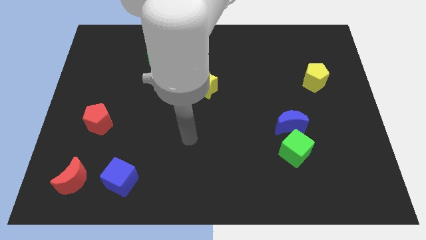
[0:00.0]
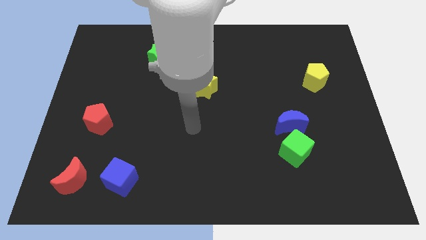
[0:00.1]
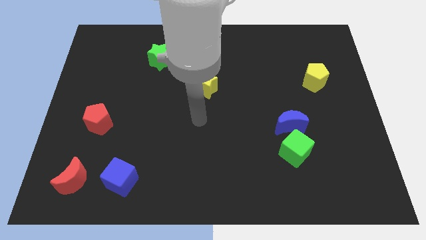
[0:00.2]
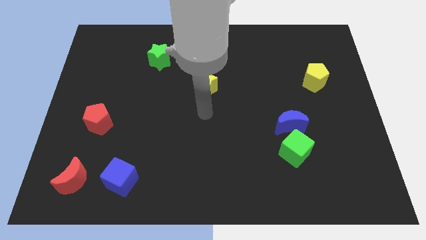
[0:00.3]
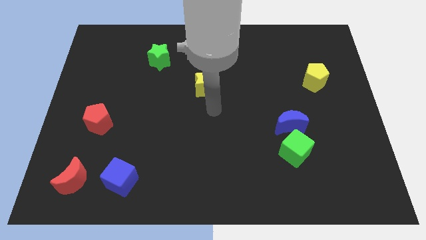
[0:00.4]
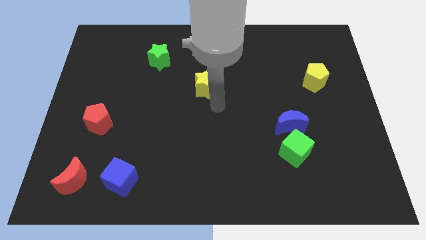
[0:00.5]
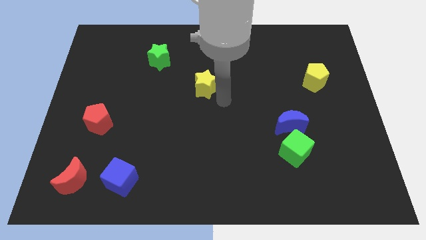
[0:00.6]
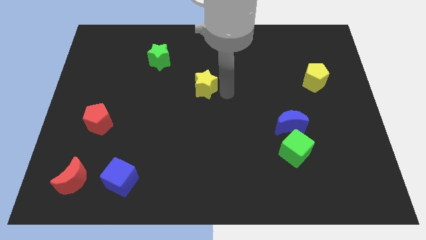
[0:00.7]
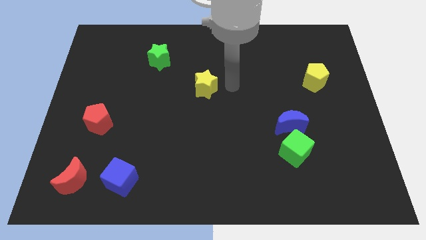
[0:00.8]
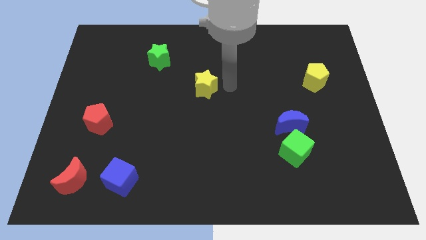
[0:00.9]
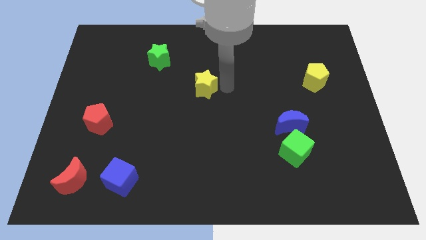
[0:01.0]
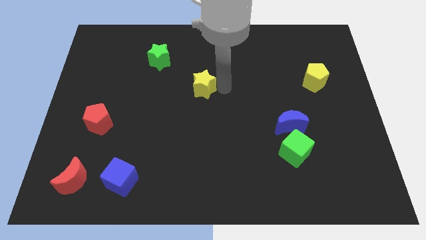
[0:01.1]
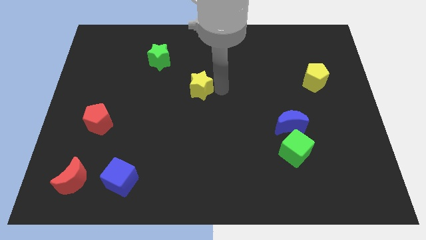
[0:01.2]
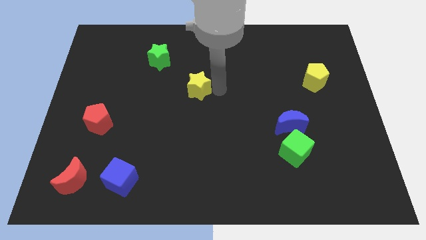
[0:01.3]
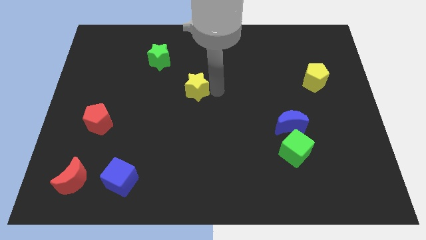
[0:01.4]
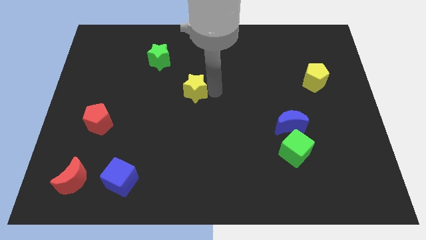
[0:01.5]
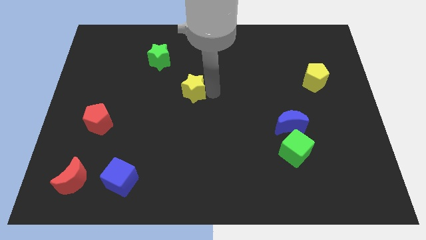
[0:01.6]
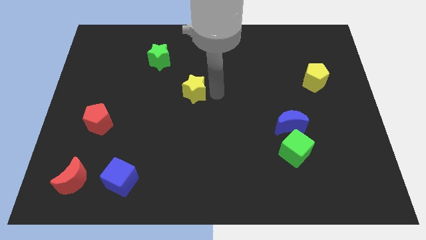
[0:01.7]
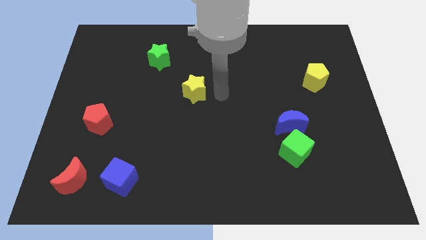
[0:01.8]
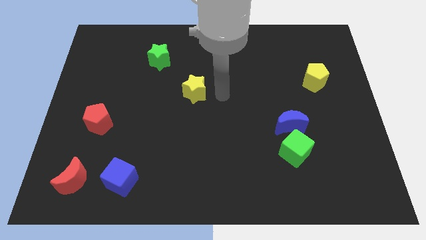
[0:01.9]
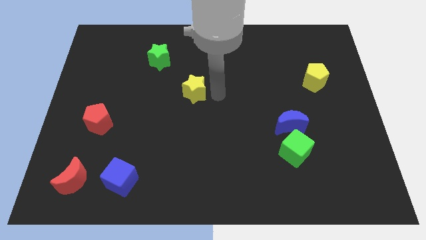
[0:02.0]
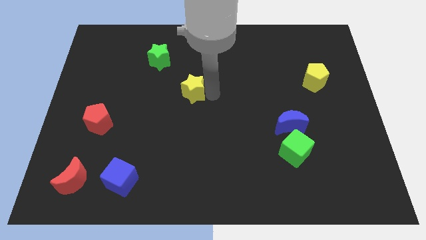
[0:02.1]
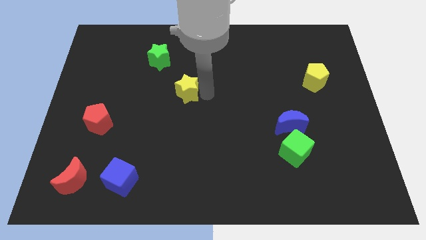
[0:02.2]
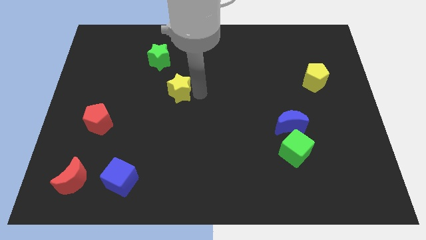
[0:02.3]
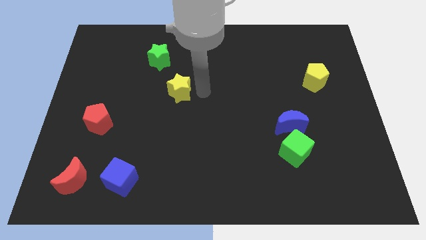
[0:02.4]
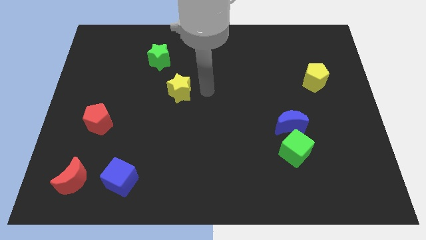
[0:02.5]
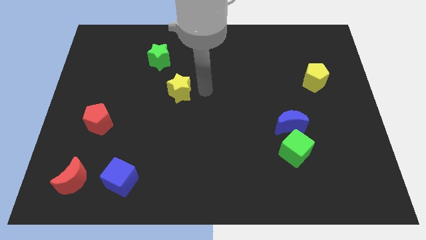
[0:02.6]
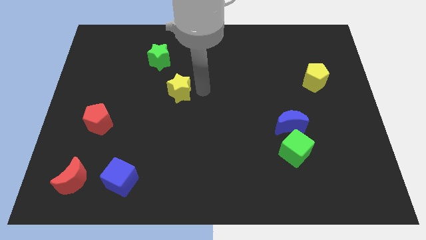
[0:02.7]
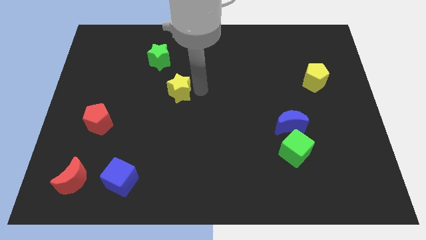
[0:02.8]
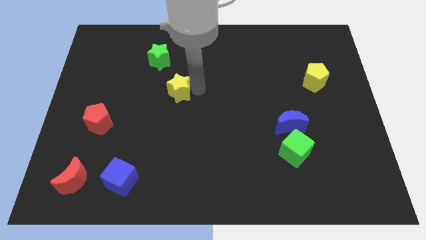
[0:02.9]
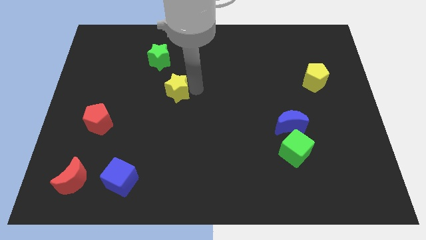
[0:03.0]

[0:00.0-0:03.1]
push the yellow star to the left a little

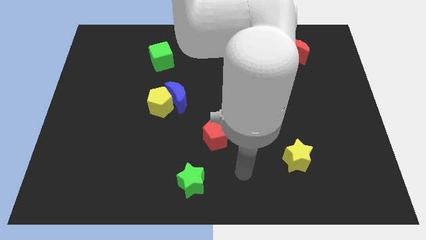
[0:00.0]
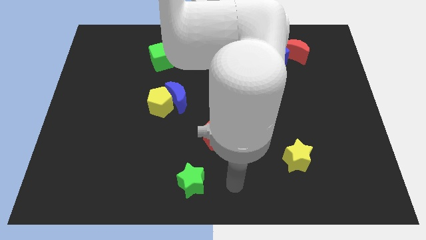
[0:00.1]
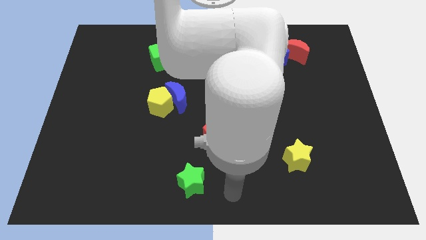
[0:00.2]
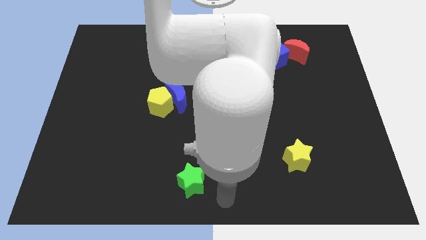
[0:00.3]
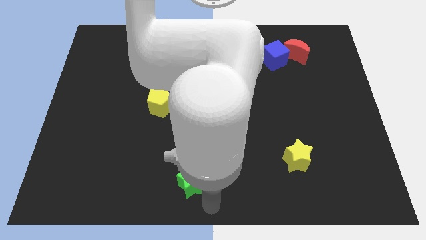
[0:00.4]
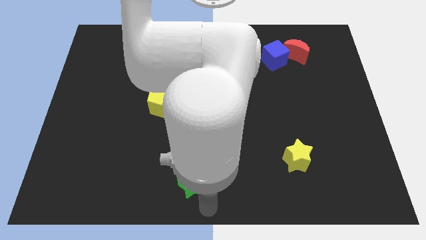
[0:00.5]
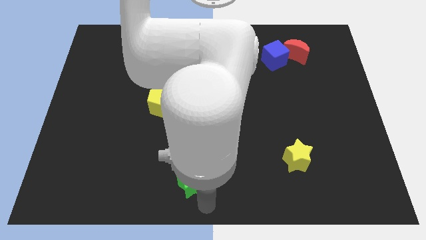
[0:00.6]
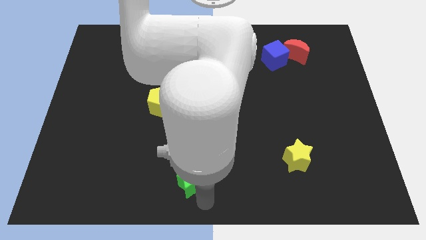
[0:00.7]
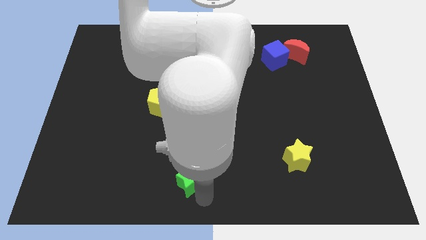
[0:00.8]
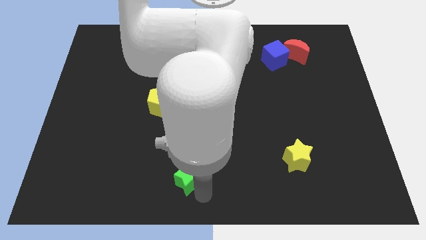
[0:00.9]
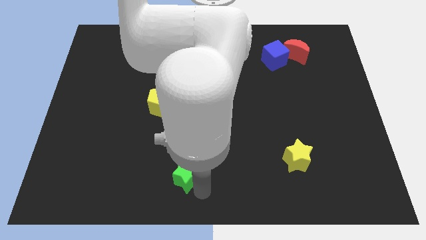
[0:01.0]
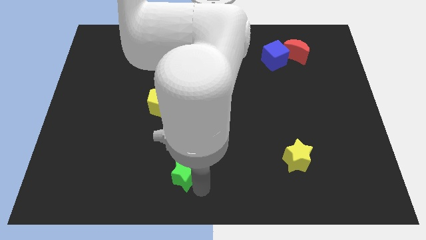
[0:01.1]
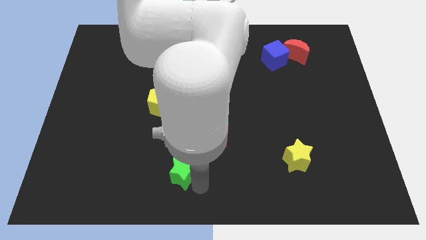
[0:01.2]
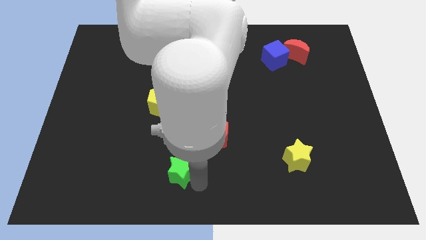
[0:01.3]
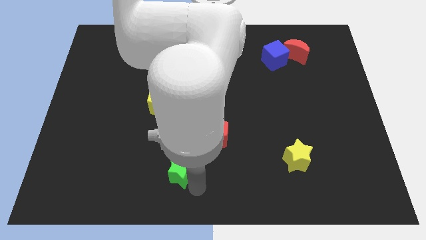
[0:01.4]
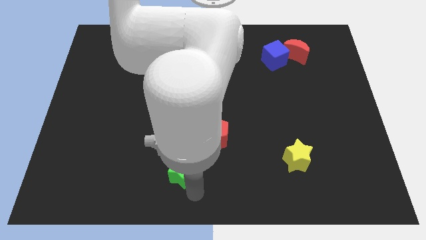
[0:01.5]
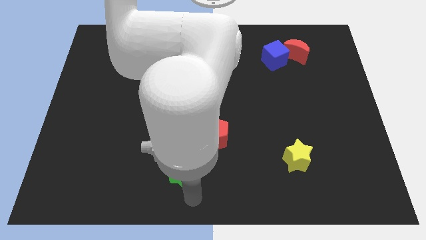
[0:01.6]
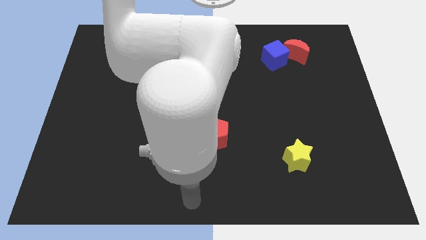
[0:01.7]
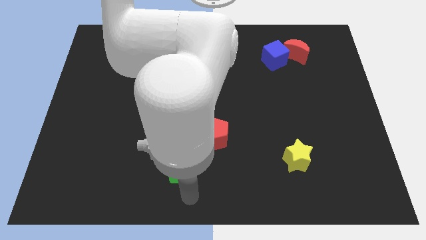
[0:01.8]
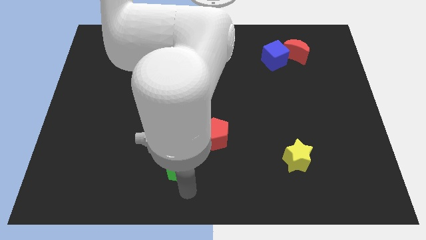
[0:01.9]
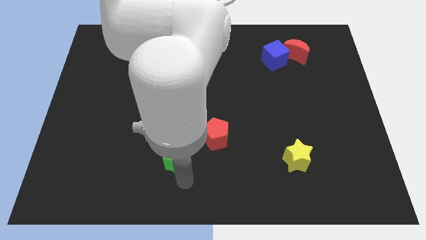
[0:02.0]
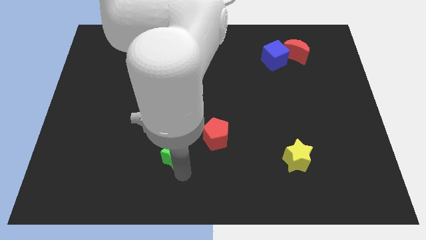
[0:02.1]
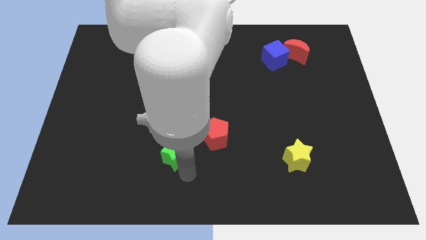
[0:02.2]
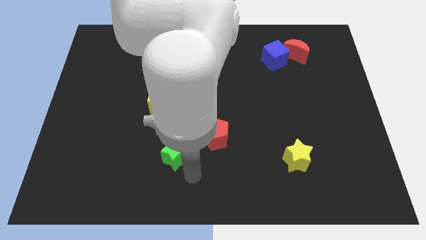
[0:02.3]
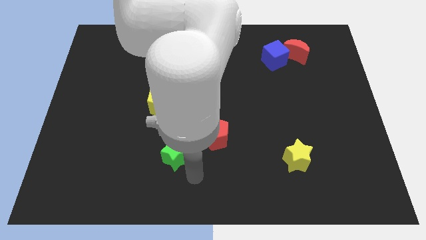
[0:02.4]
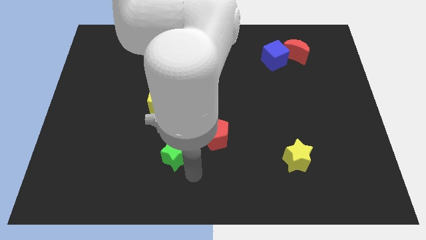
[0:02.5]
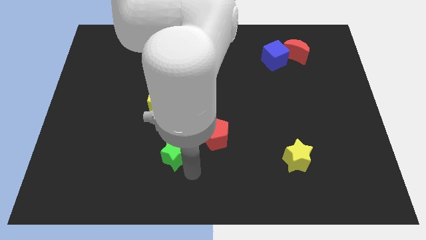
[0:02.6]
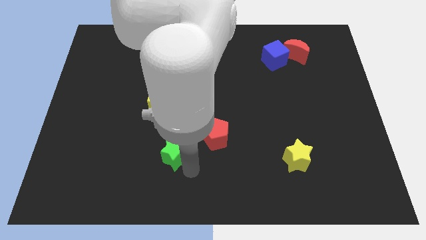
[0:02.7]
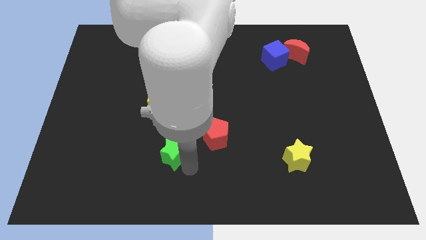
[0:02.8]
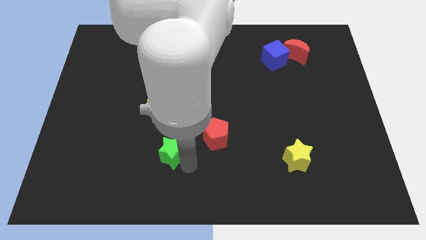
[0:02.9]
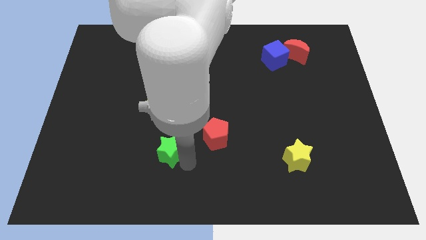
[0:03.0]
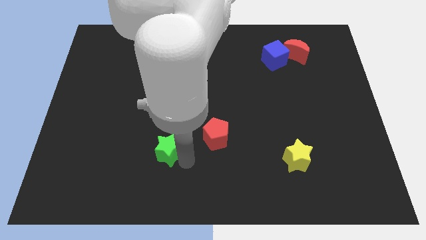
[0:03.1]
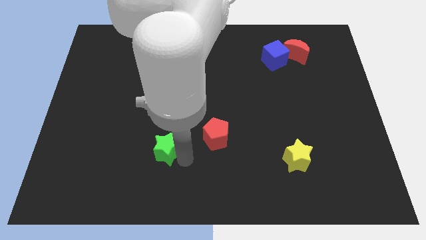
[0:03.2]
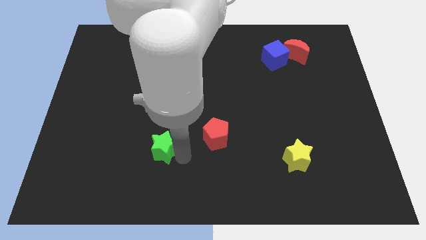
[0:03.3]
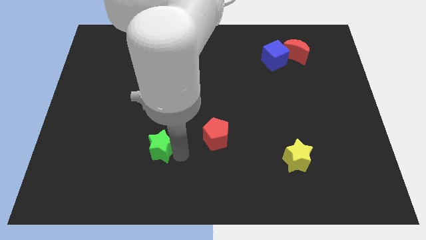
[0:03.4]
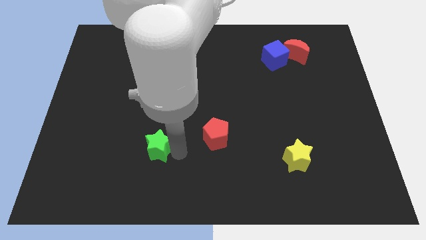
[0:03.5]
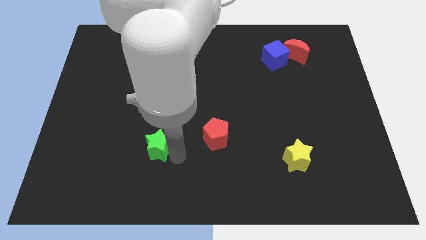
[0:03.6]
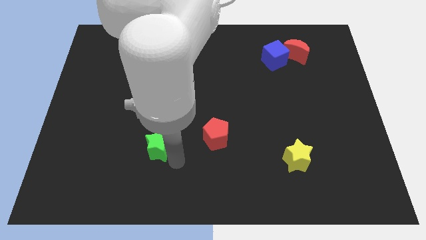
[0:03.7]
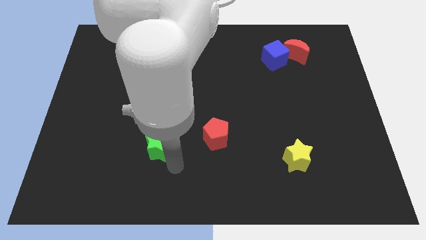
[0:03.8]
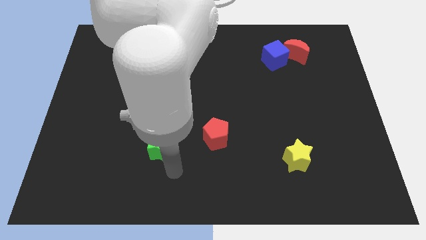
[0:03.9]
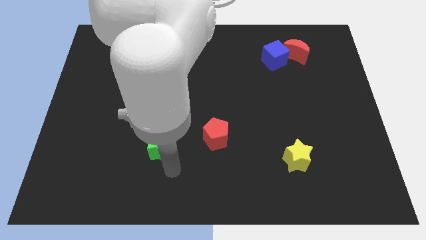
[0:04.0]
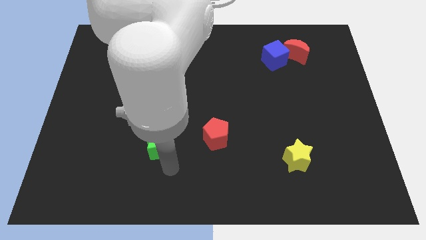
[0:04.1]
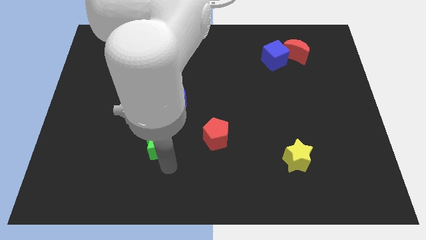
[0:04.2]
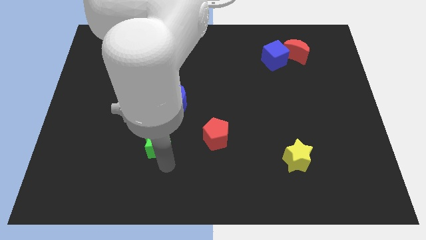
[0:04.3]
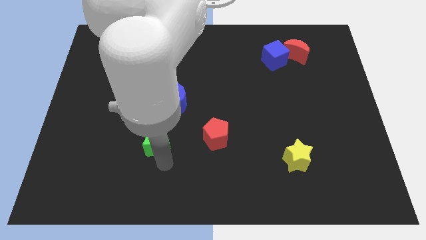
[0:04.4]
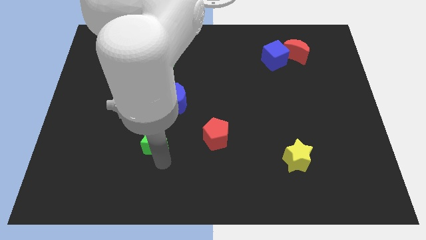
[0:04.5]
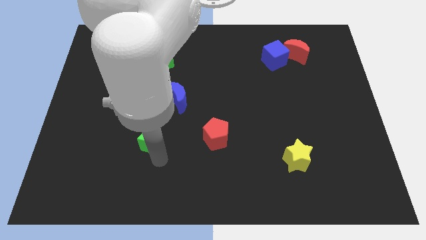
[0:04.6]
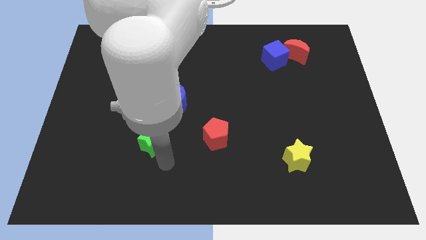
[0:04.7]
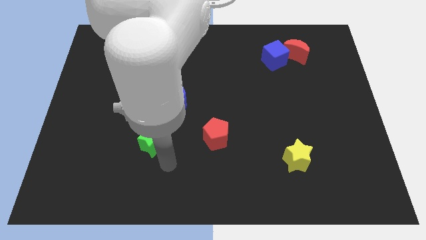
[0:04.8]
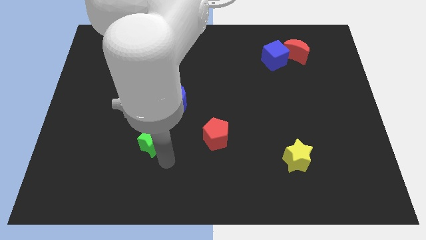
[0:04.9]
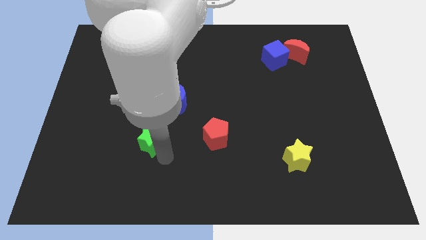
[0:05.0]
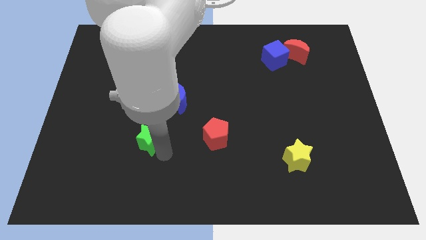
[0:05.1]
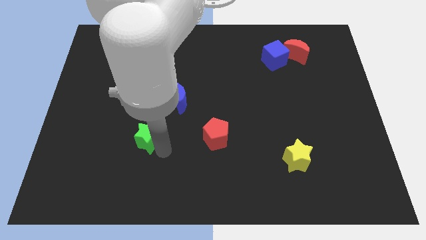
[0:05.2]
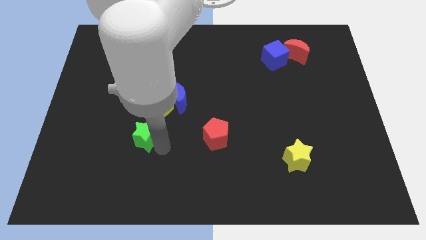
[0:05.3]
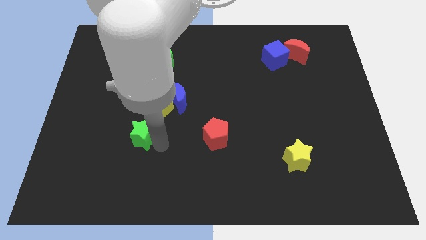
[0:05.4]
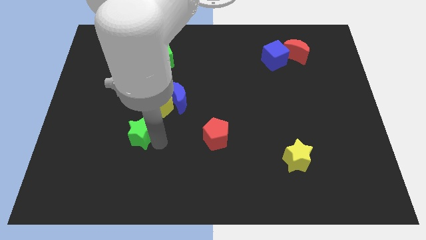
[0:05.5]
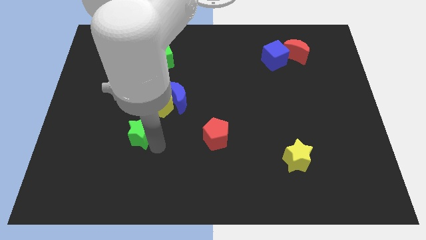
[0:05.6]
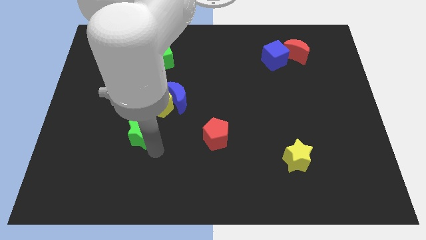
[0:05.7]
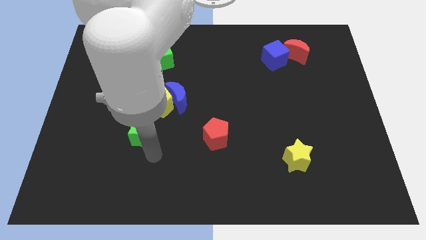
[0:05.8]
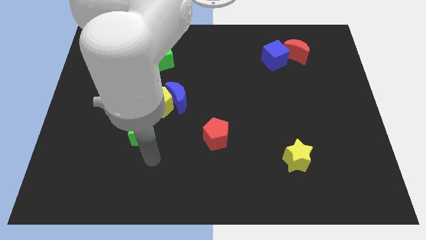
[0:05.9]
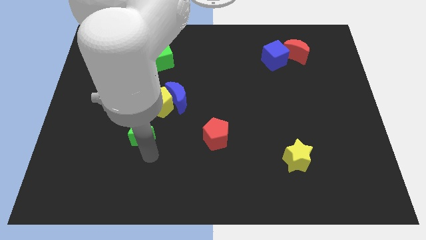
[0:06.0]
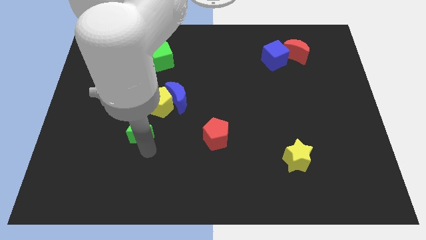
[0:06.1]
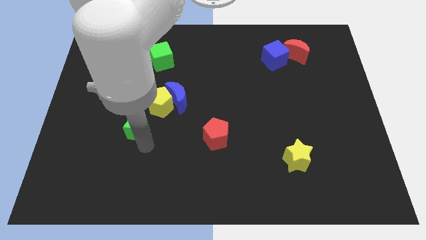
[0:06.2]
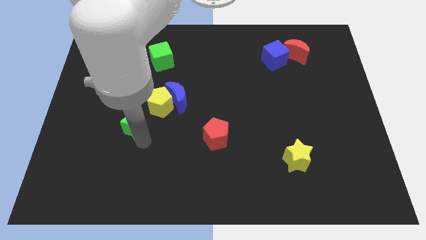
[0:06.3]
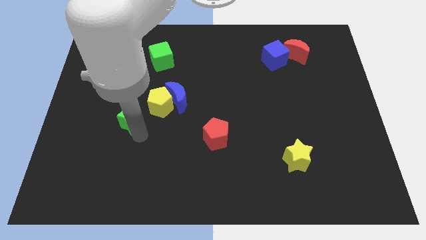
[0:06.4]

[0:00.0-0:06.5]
slide the green star up and then left
